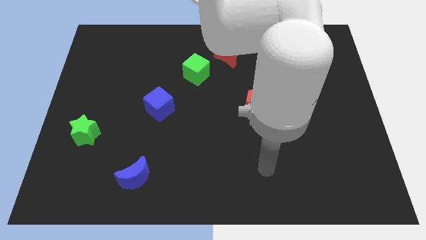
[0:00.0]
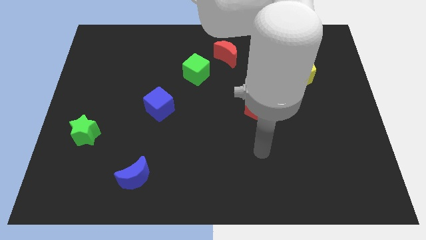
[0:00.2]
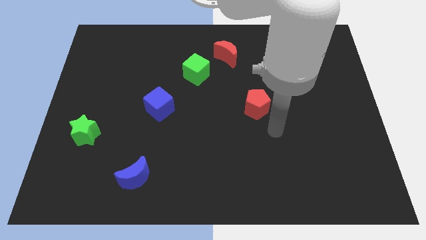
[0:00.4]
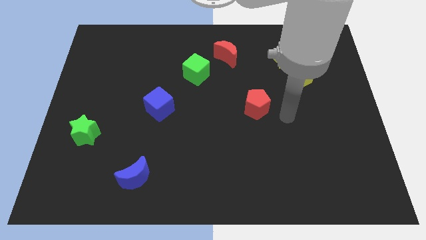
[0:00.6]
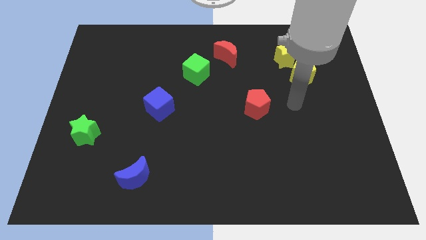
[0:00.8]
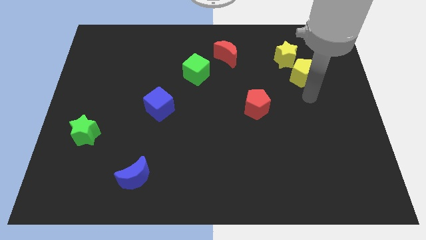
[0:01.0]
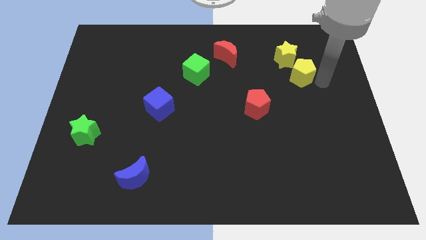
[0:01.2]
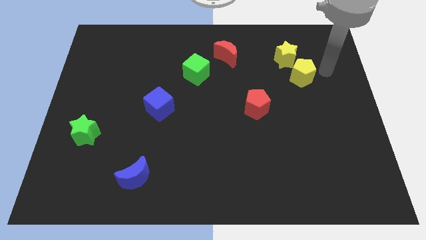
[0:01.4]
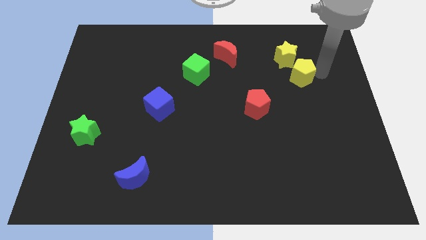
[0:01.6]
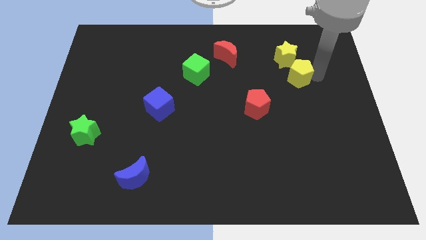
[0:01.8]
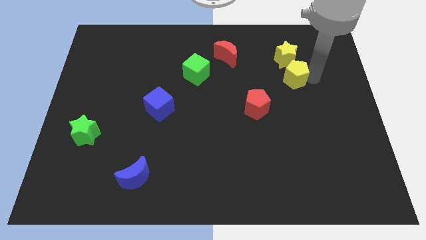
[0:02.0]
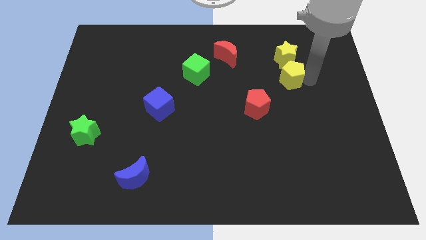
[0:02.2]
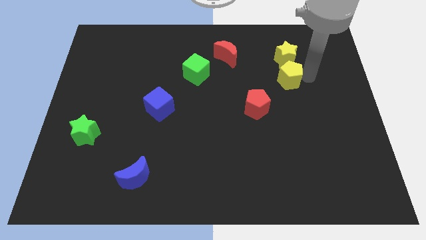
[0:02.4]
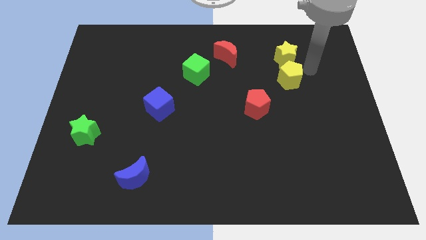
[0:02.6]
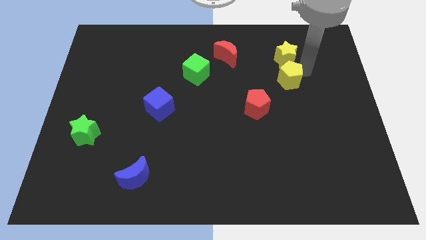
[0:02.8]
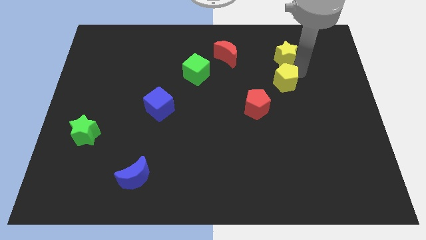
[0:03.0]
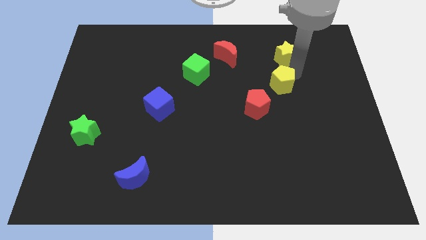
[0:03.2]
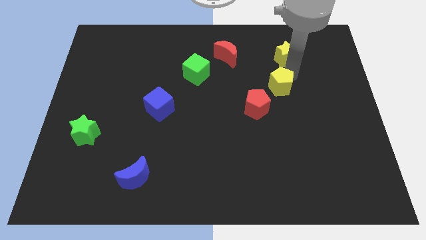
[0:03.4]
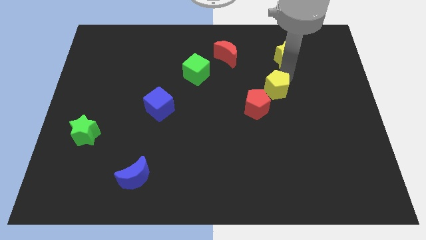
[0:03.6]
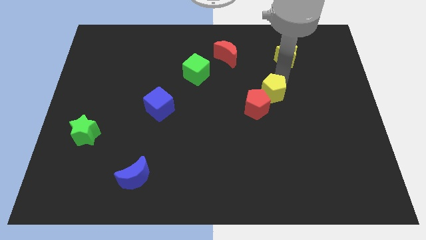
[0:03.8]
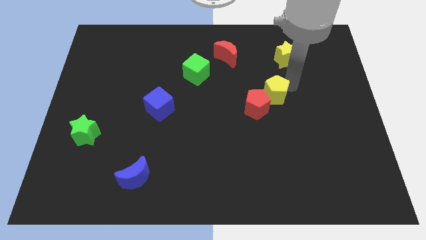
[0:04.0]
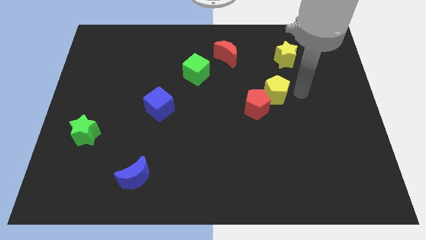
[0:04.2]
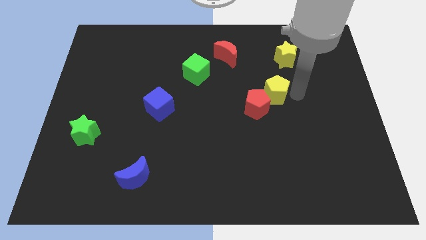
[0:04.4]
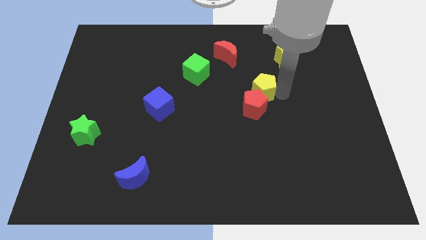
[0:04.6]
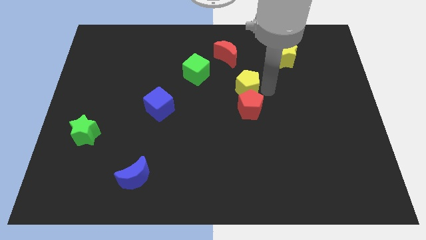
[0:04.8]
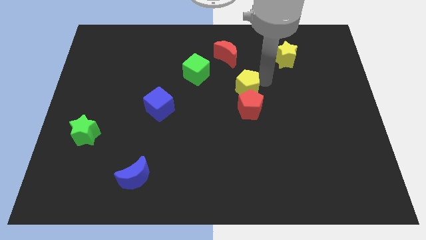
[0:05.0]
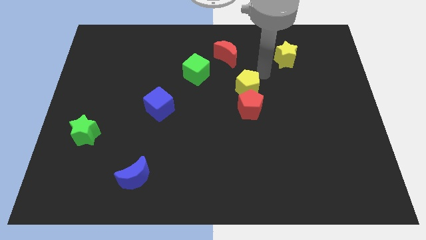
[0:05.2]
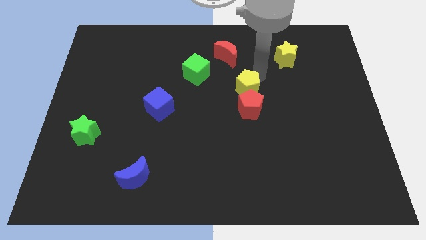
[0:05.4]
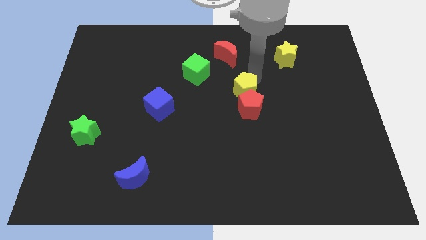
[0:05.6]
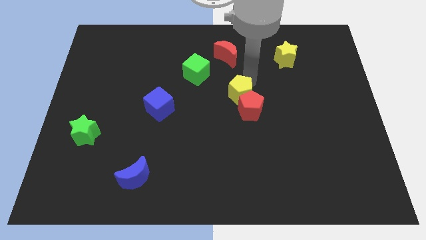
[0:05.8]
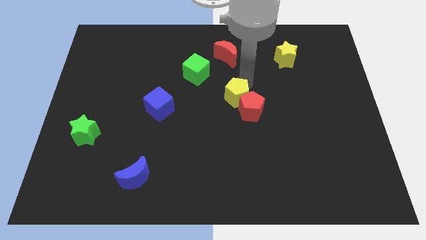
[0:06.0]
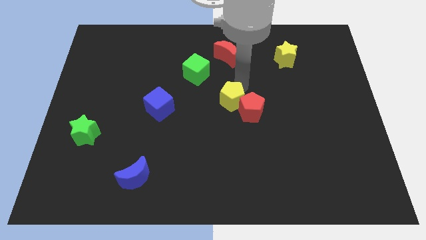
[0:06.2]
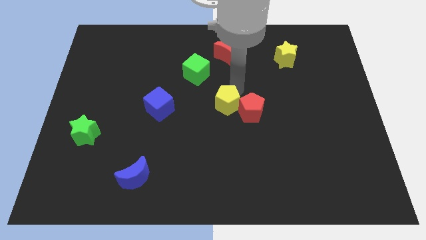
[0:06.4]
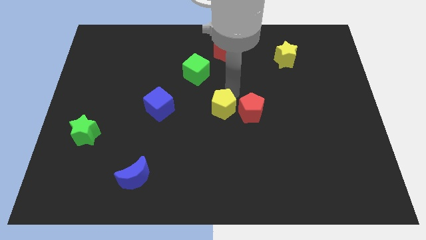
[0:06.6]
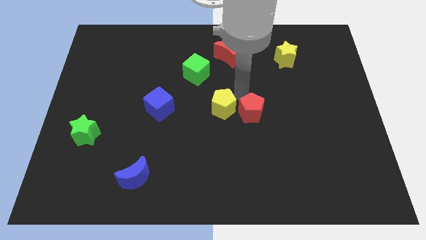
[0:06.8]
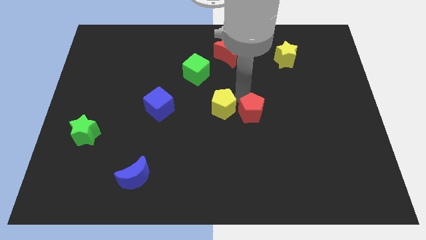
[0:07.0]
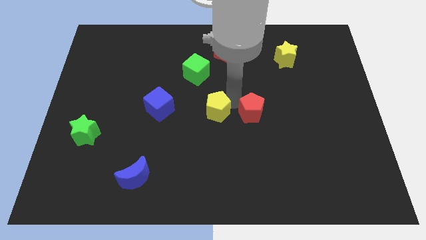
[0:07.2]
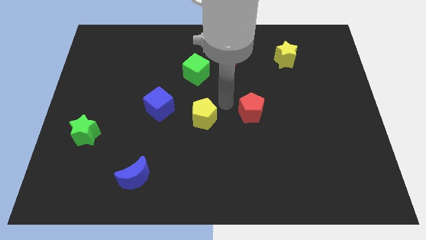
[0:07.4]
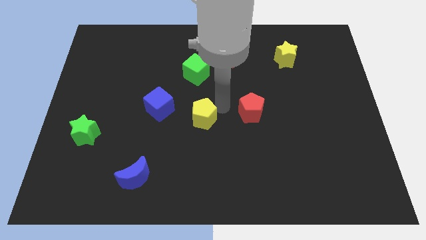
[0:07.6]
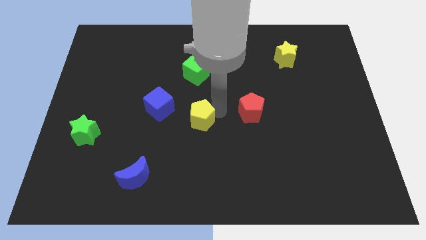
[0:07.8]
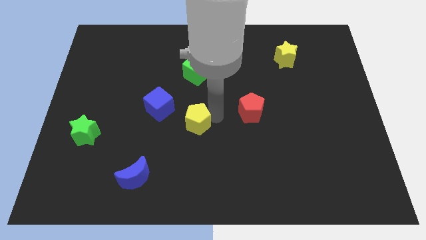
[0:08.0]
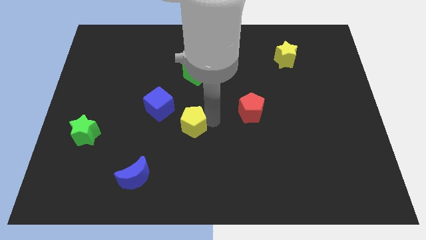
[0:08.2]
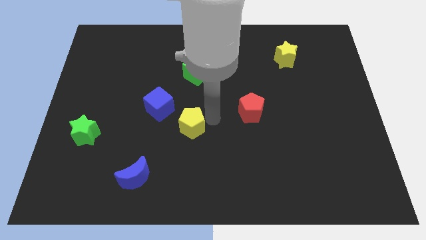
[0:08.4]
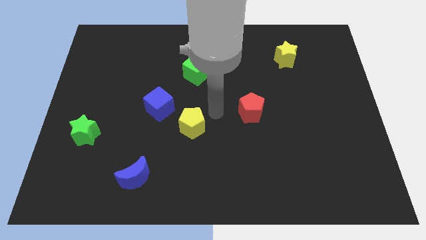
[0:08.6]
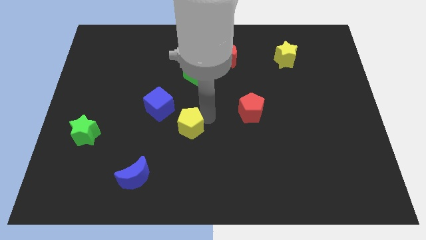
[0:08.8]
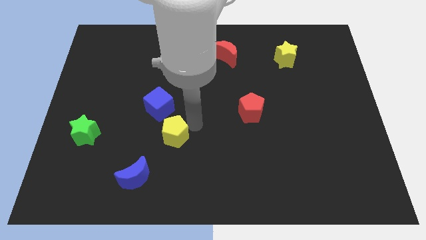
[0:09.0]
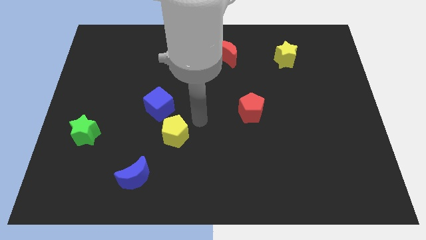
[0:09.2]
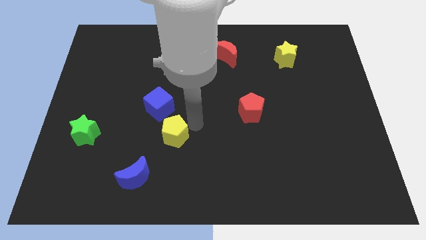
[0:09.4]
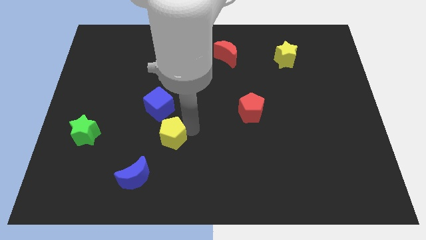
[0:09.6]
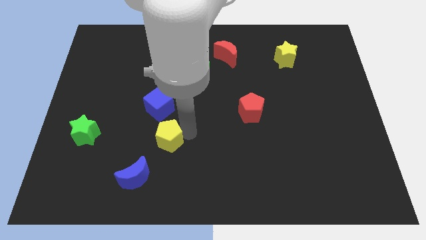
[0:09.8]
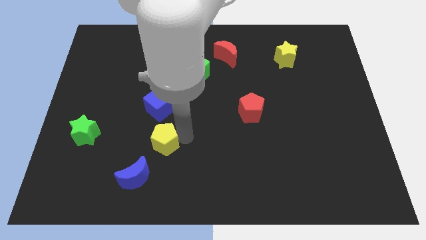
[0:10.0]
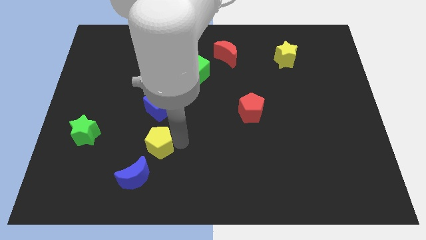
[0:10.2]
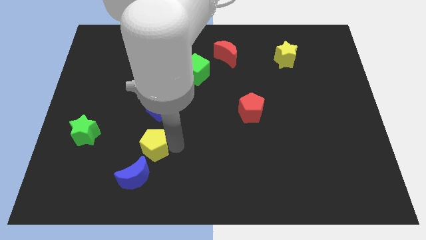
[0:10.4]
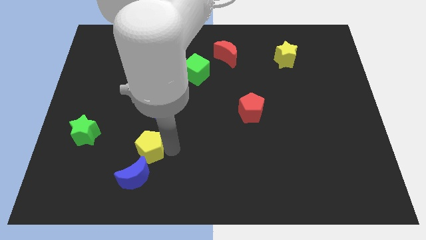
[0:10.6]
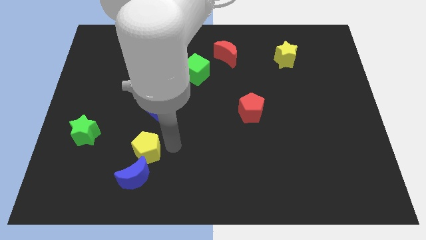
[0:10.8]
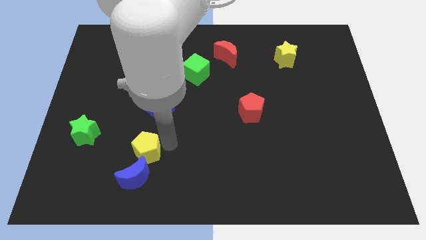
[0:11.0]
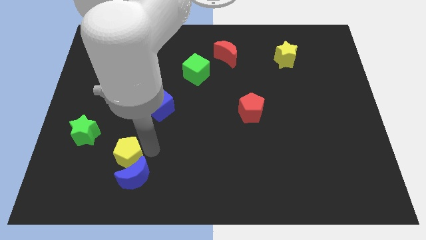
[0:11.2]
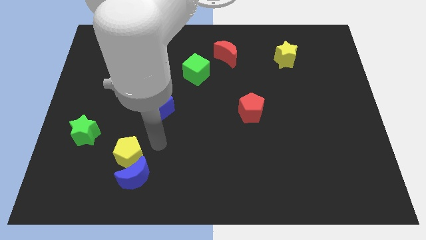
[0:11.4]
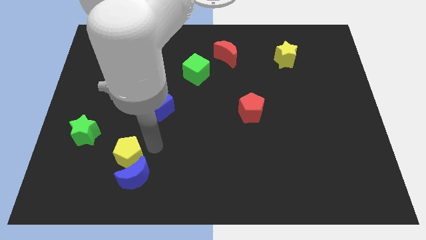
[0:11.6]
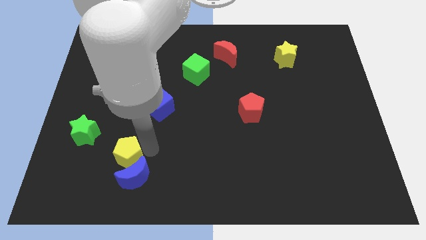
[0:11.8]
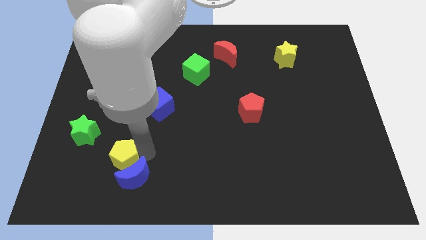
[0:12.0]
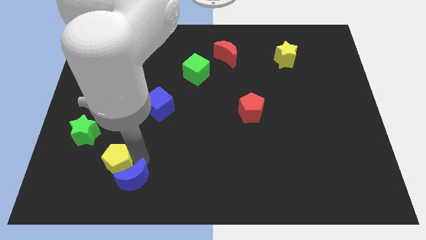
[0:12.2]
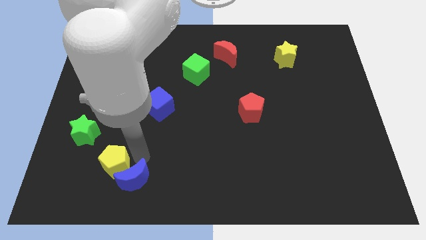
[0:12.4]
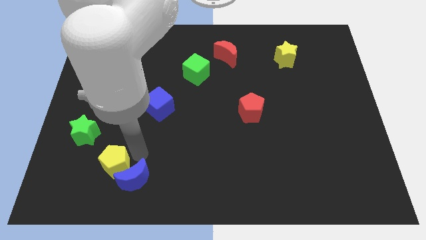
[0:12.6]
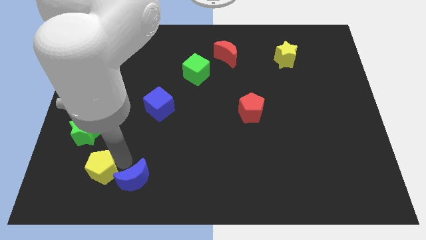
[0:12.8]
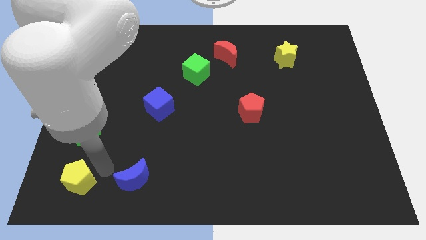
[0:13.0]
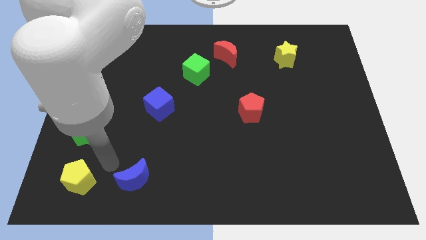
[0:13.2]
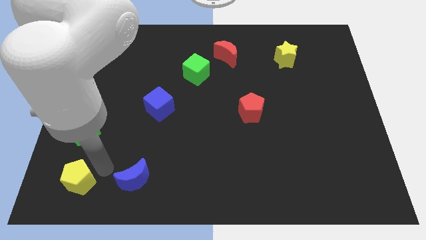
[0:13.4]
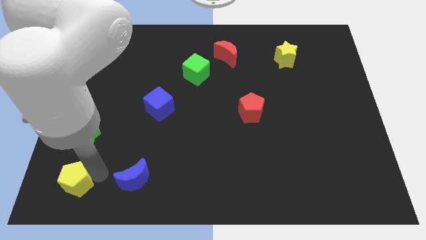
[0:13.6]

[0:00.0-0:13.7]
put the yellow pentagon to the bottom left of the board
